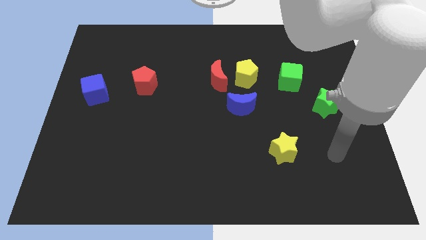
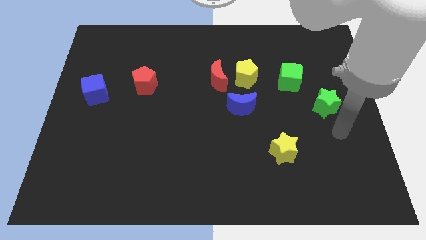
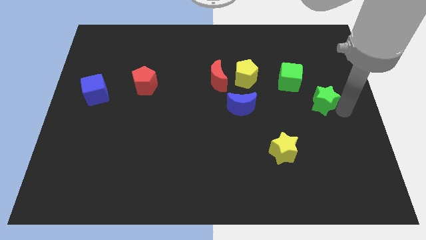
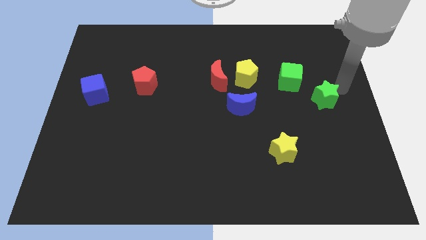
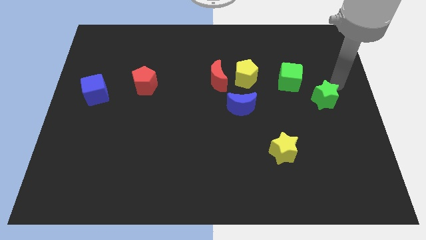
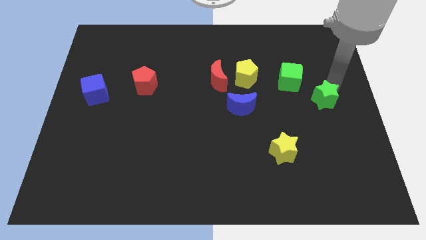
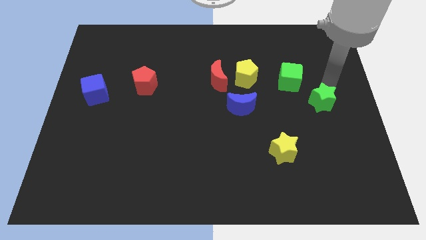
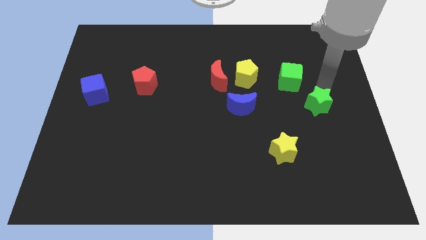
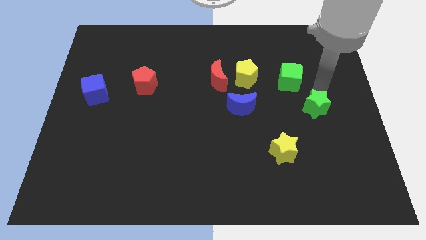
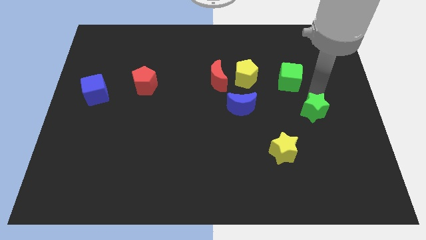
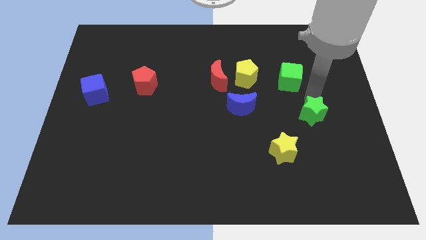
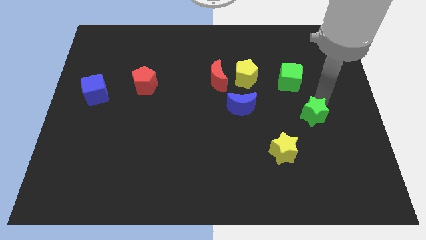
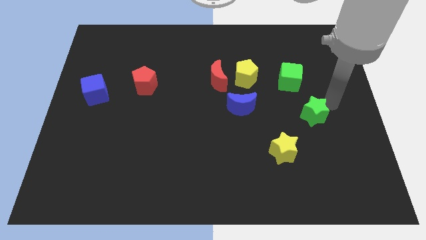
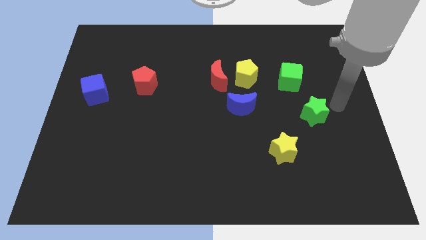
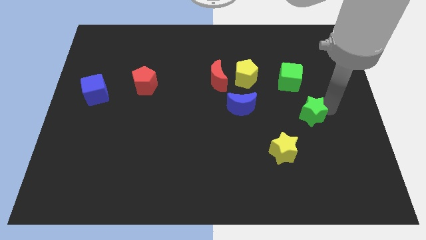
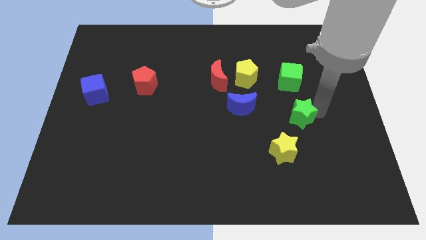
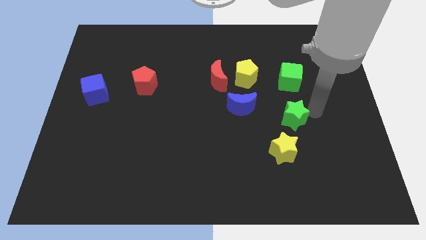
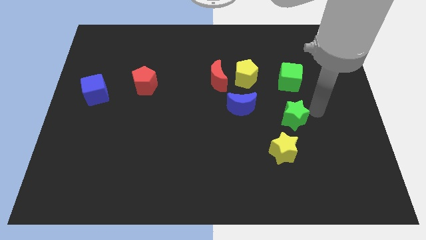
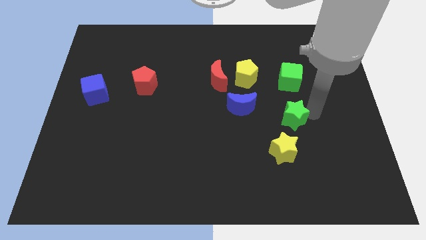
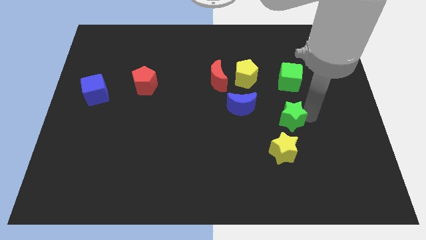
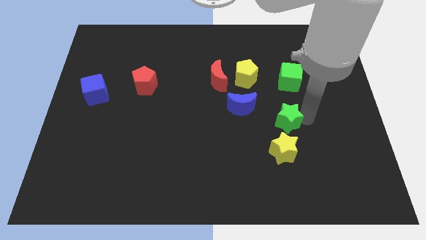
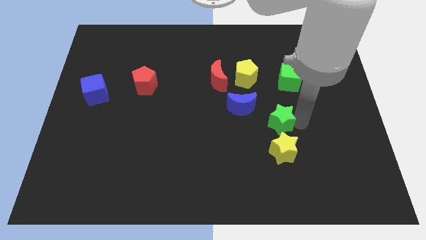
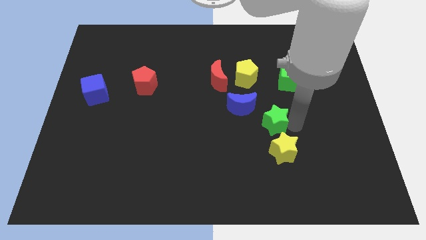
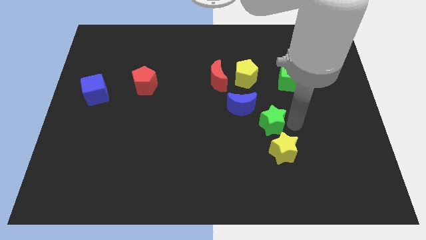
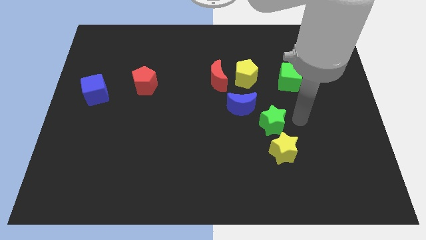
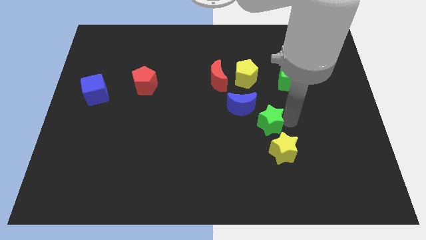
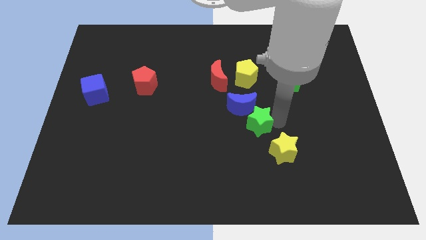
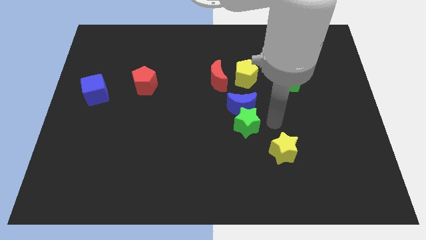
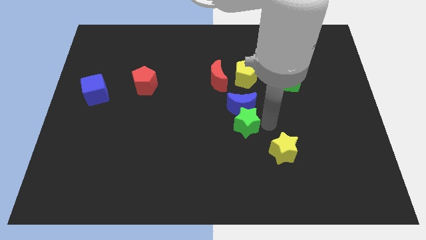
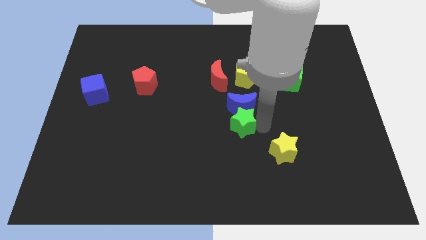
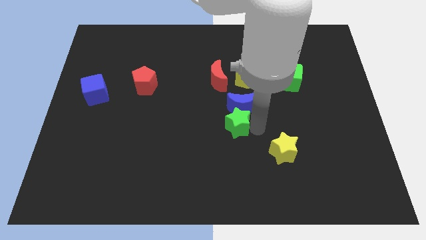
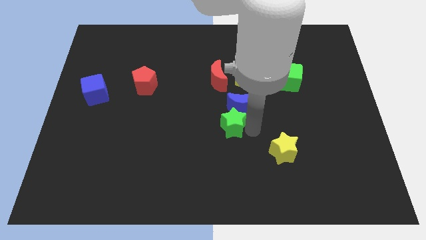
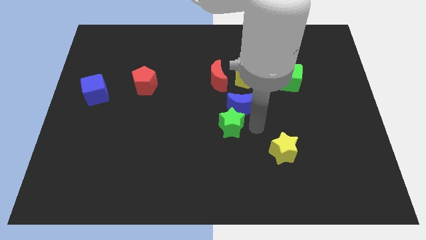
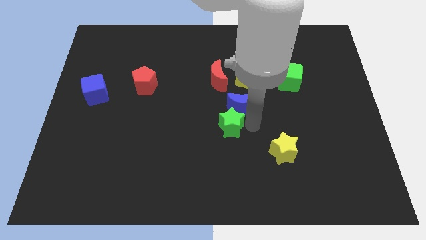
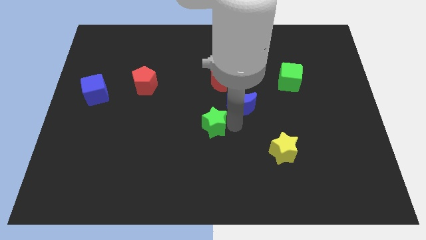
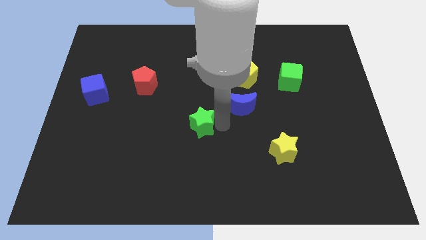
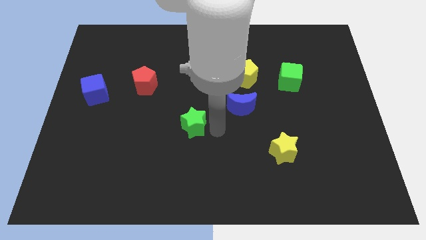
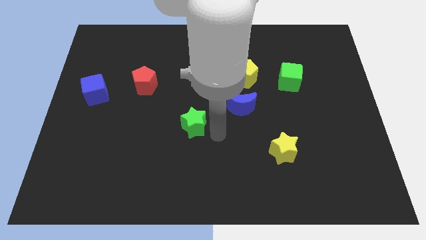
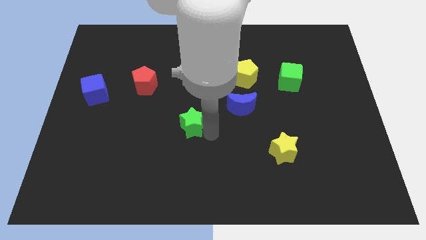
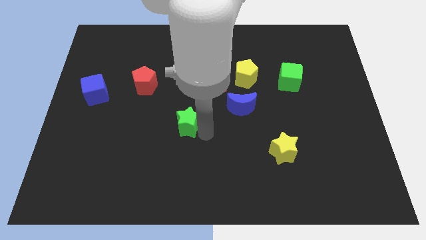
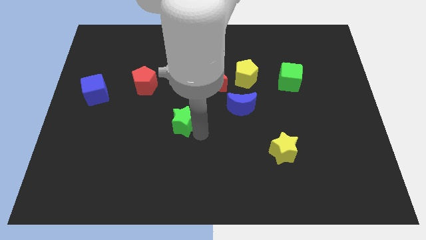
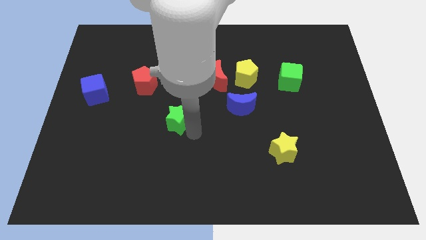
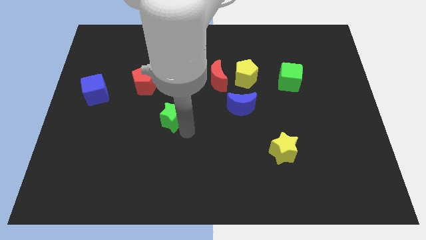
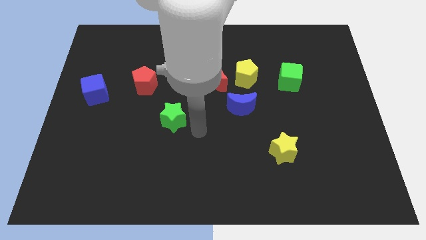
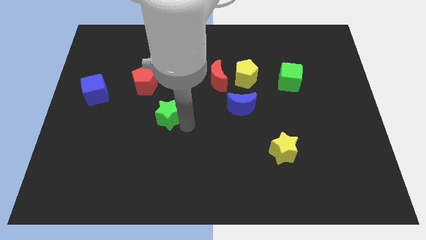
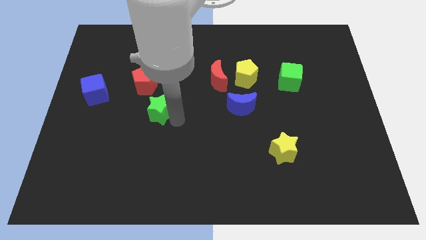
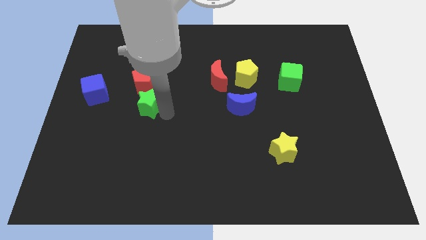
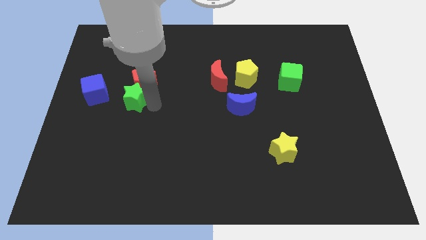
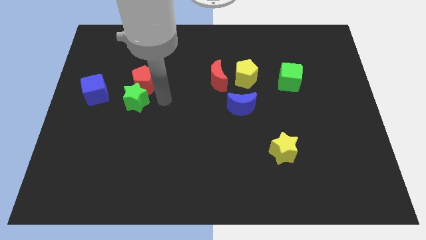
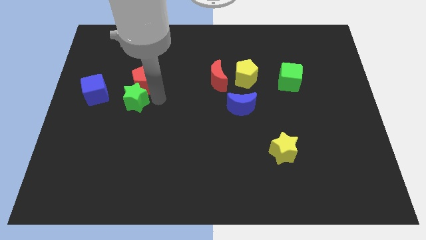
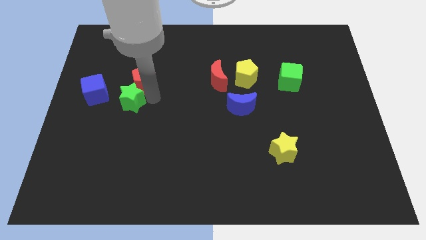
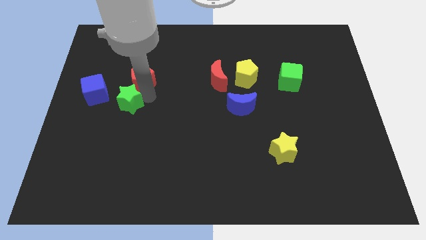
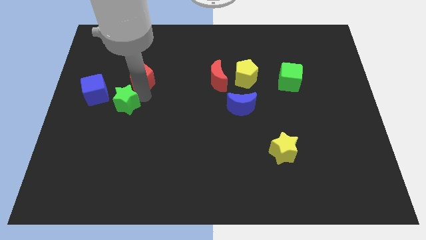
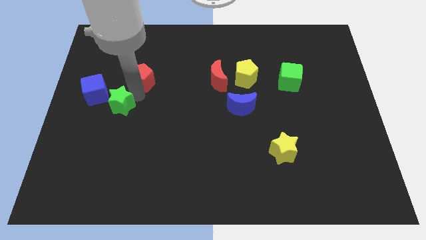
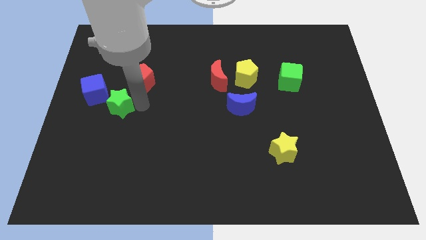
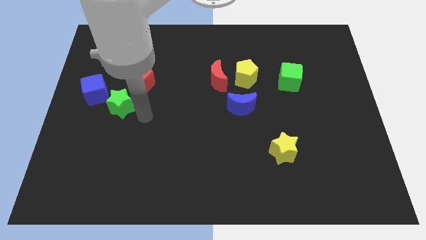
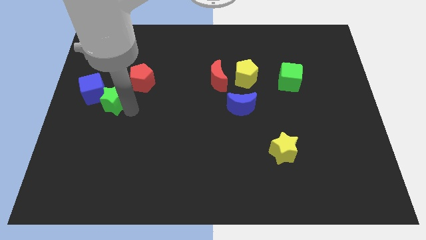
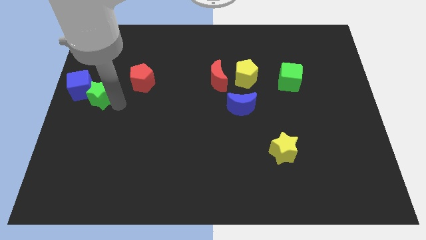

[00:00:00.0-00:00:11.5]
slide the green star next to the blue cube

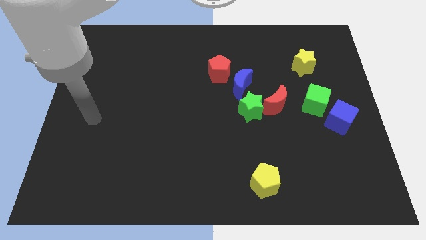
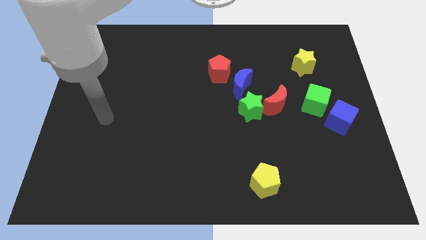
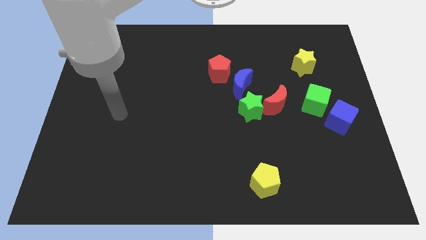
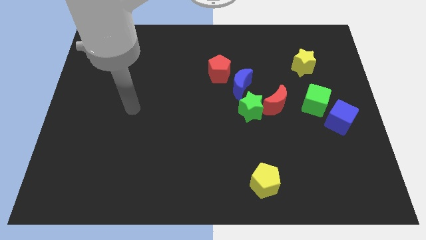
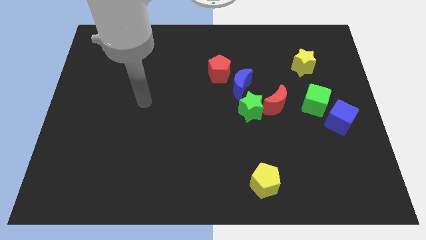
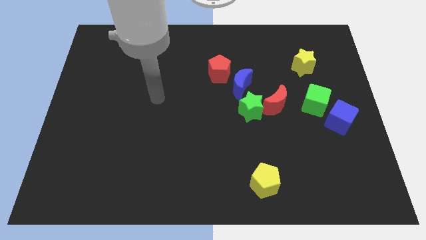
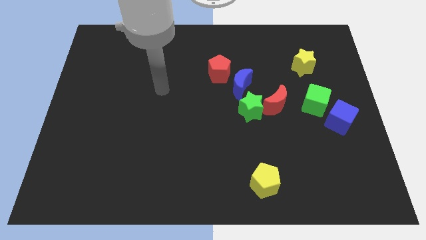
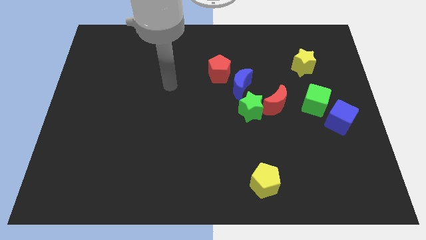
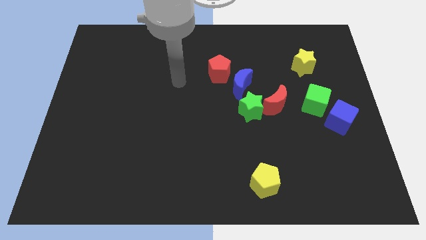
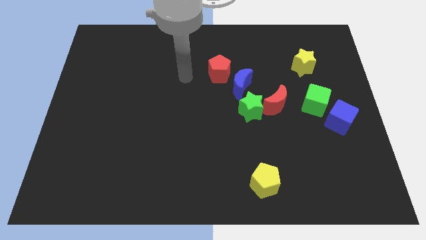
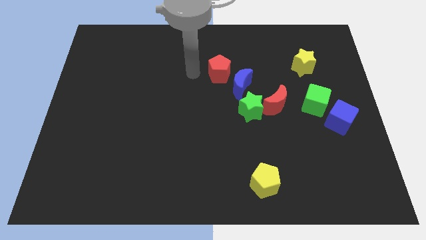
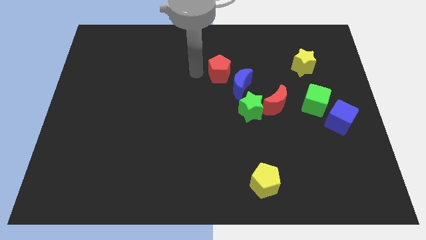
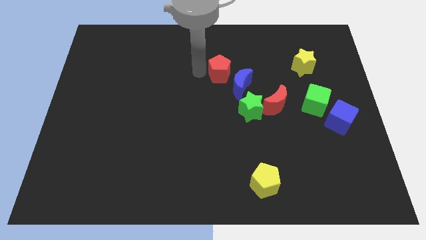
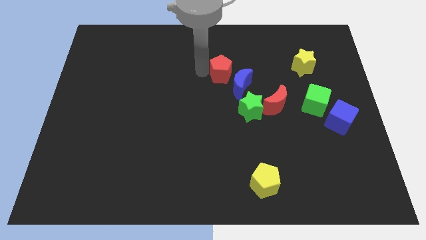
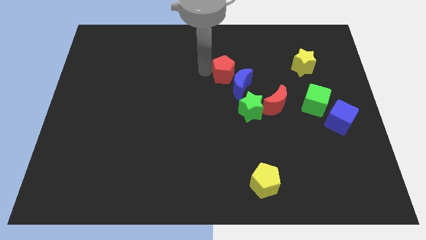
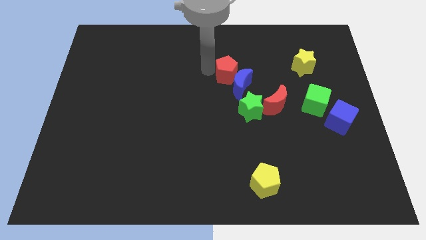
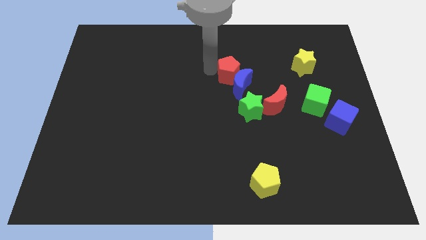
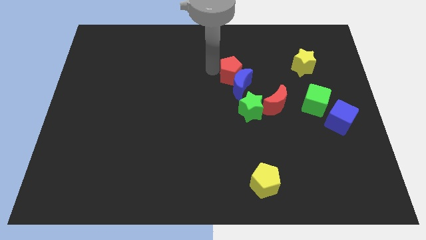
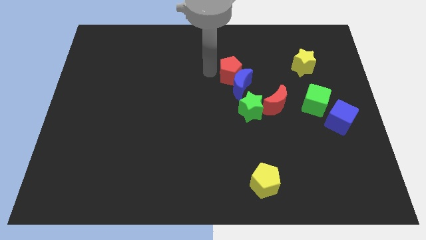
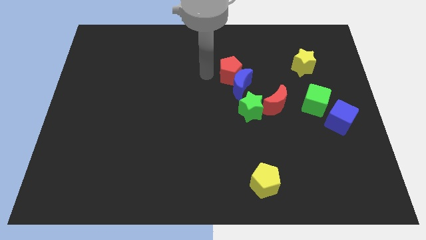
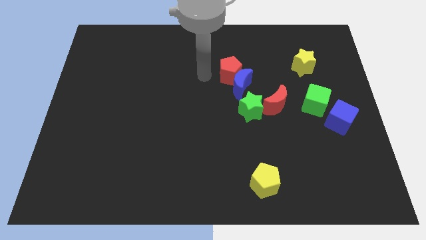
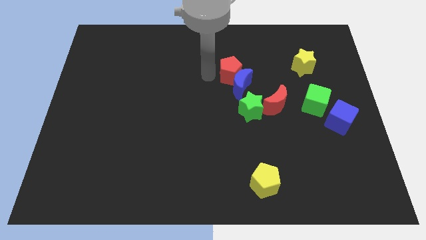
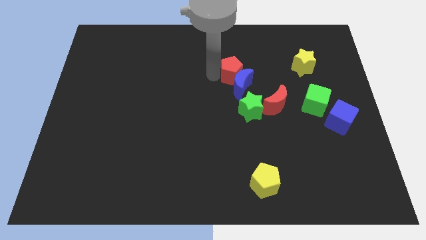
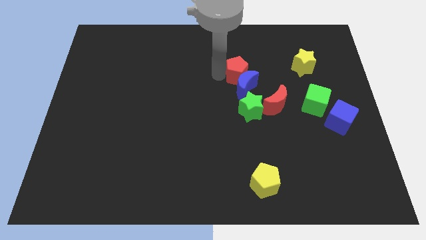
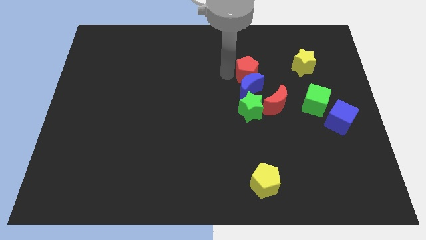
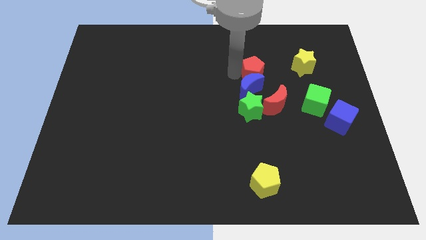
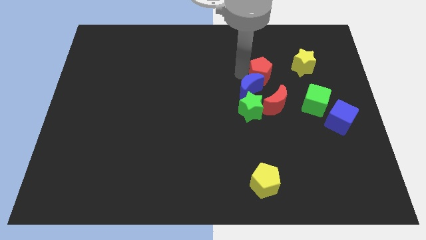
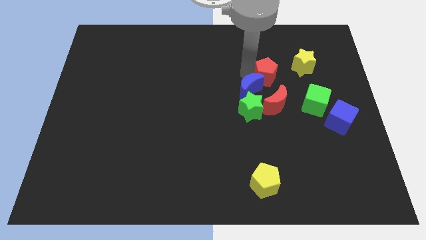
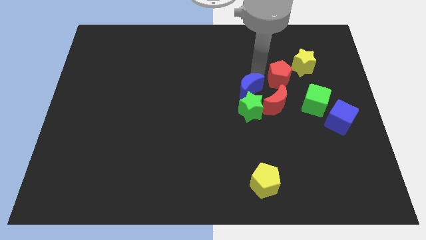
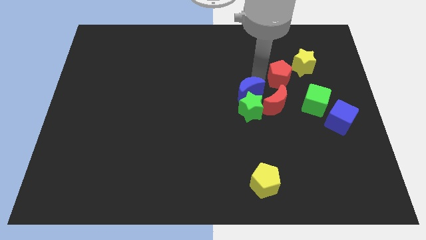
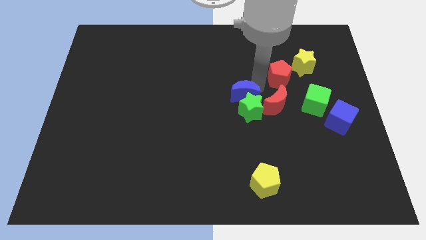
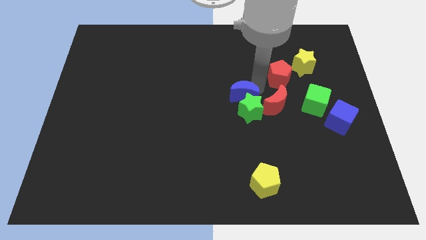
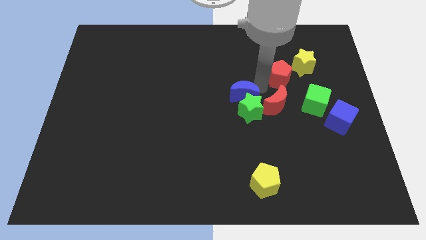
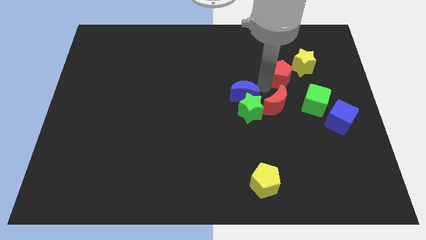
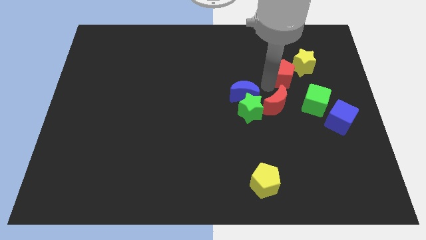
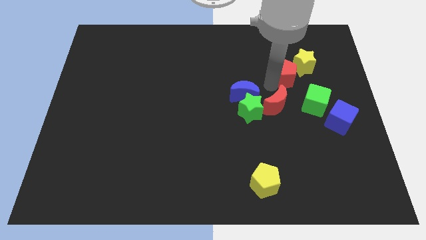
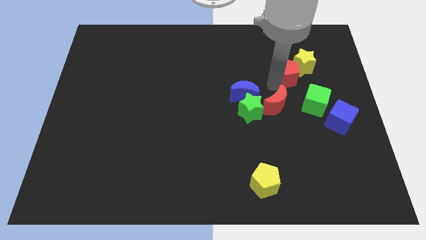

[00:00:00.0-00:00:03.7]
slide the red pentagon towards the yellow star
